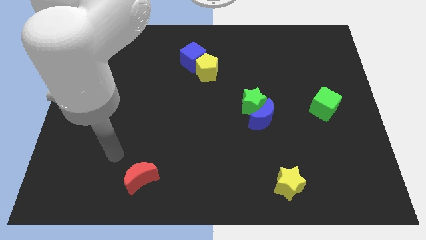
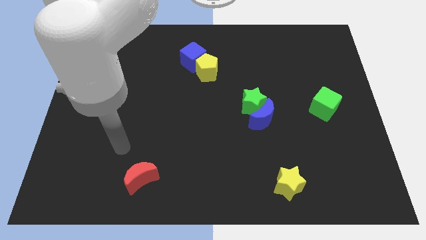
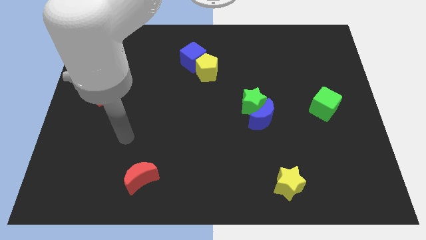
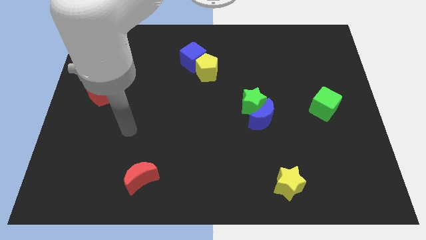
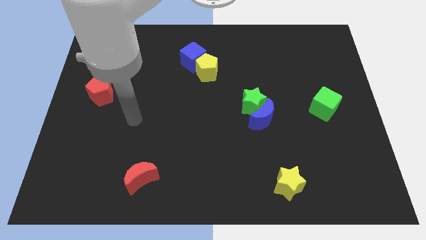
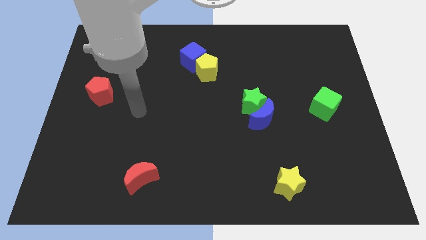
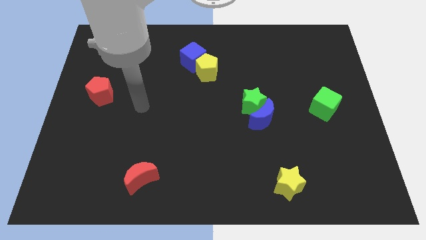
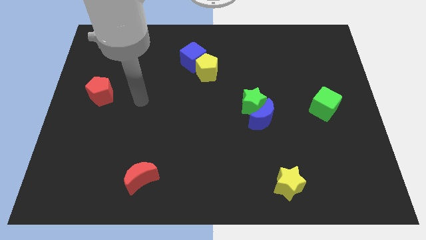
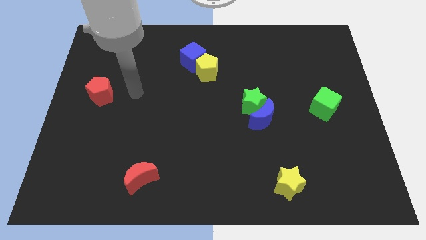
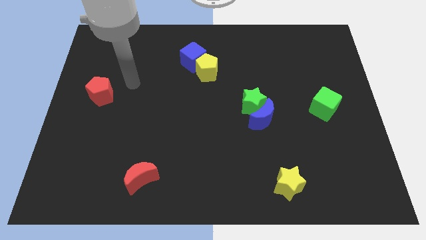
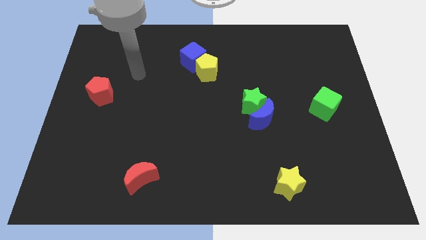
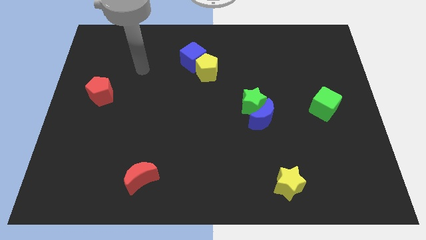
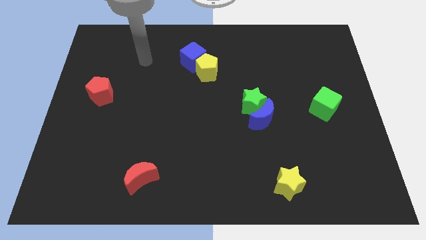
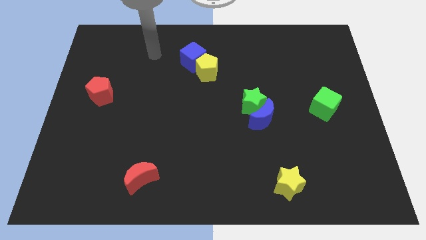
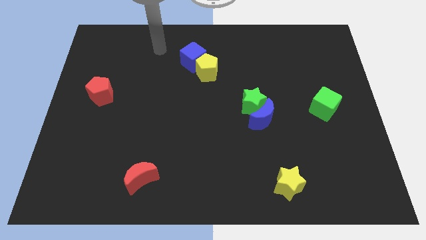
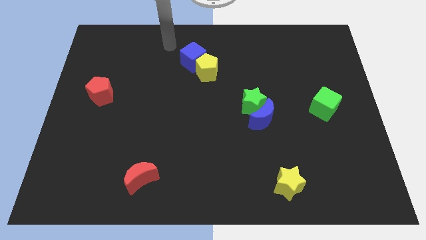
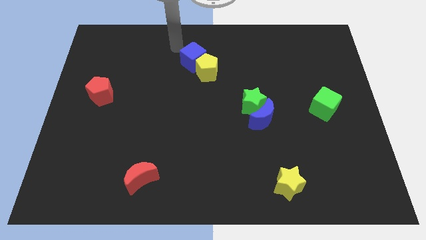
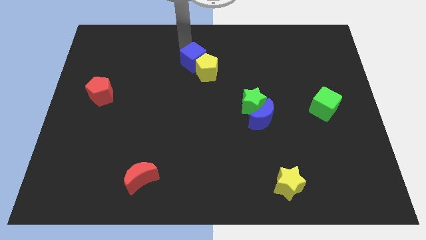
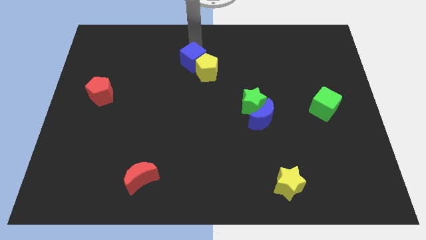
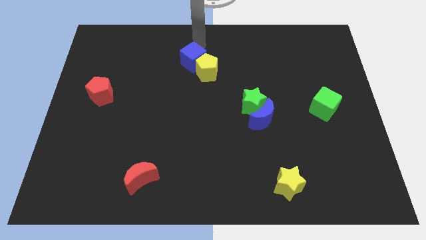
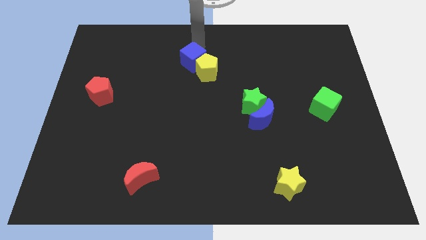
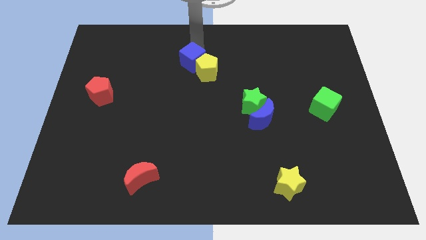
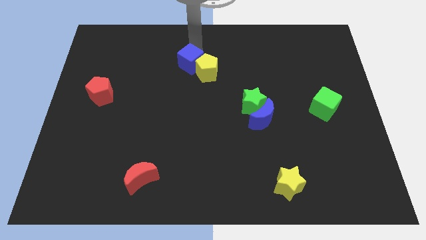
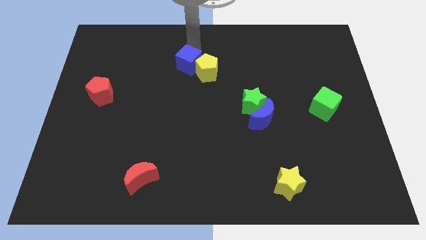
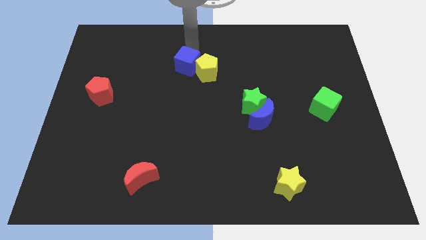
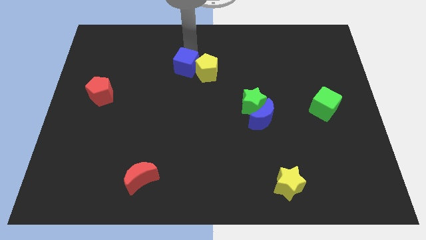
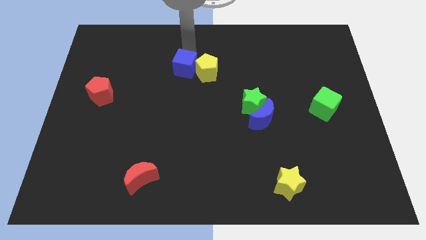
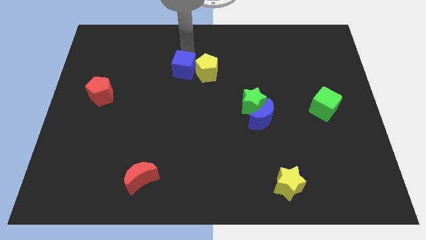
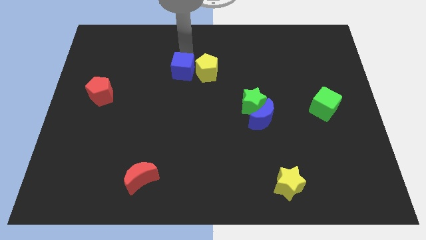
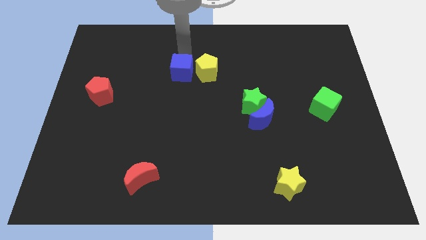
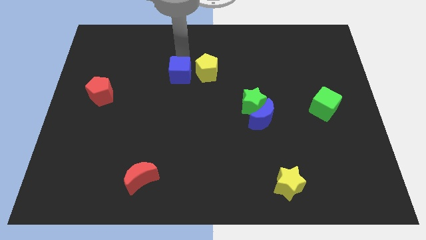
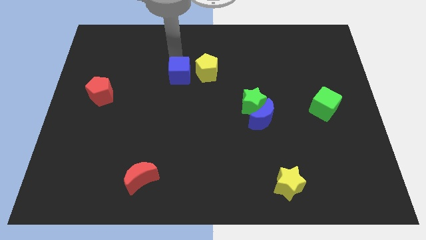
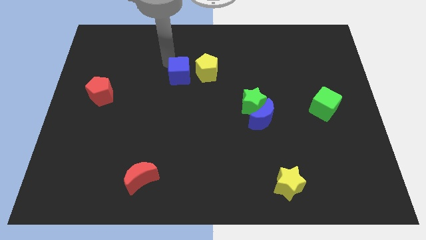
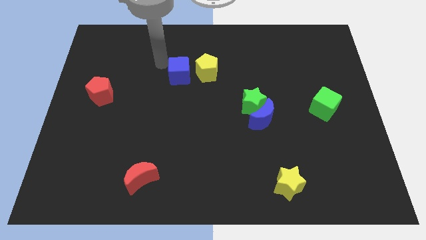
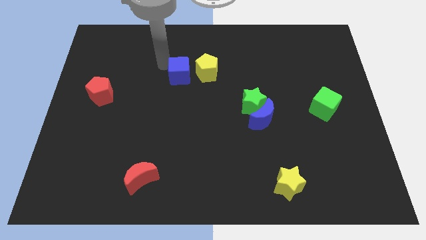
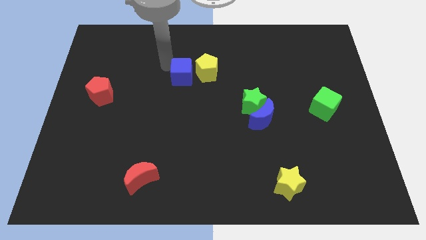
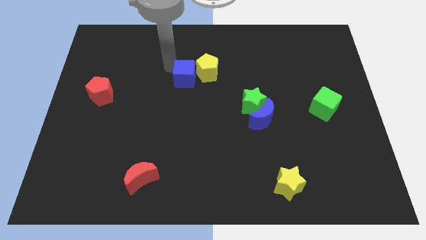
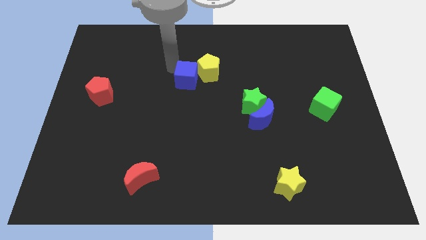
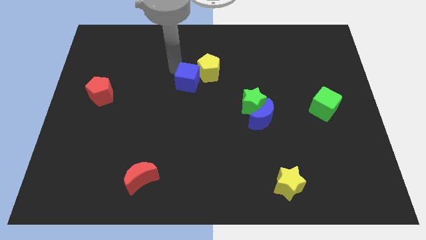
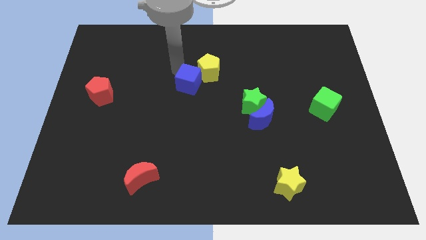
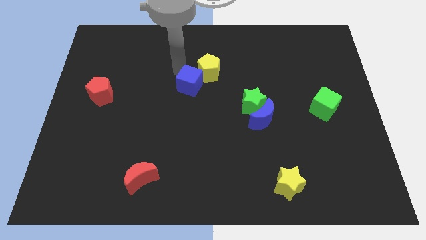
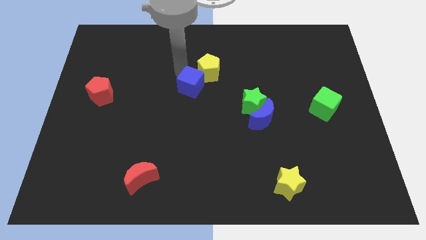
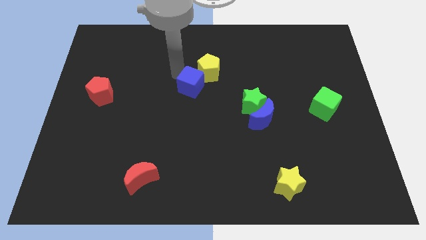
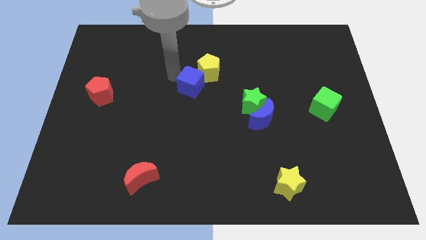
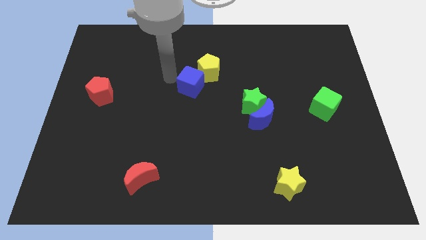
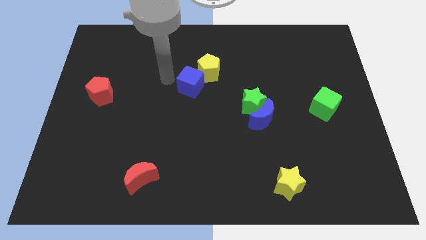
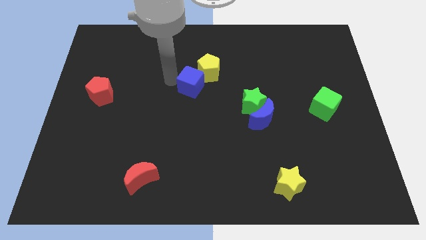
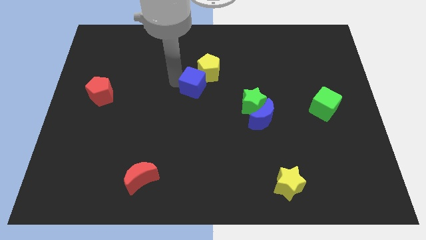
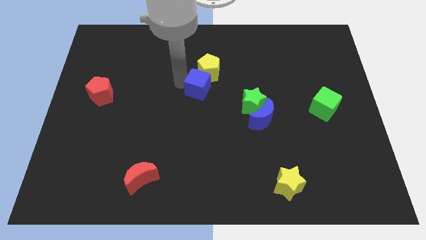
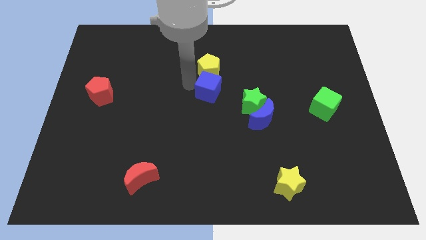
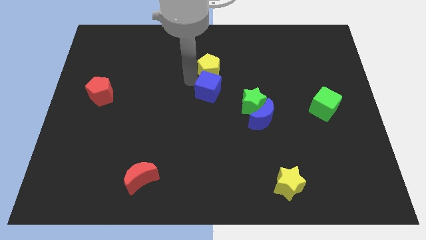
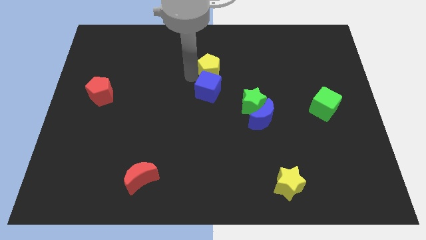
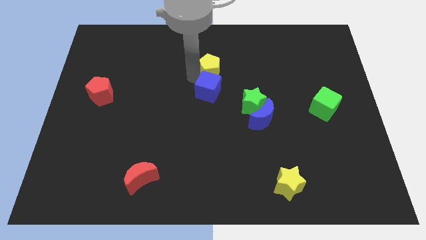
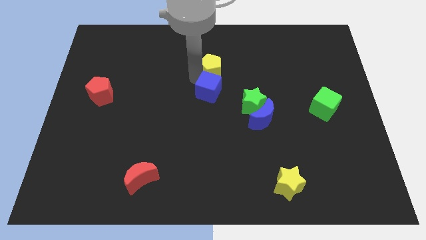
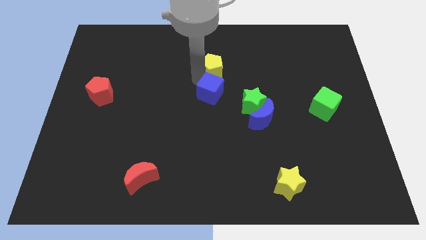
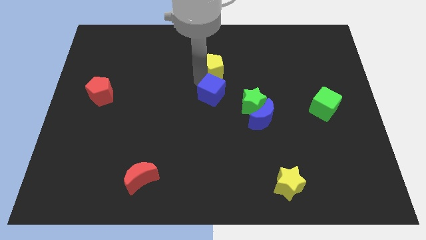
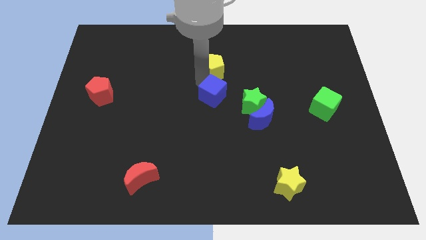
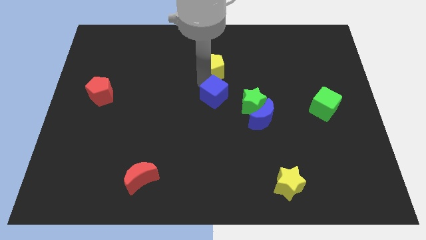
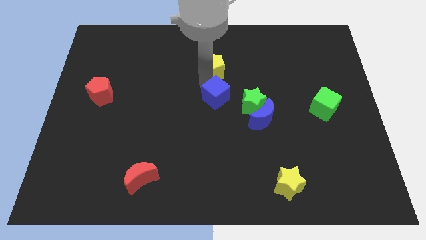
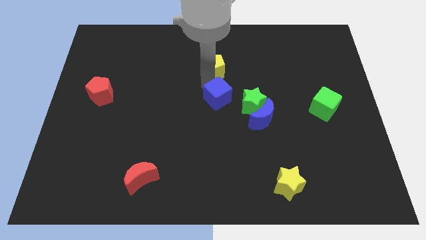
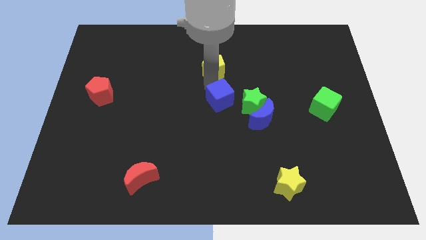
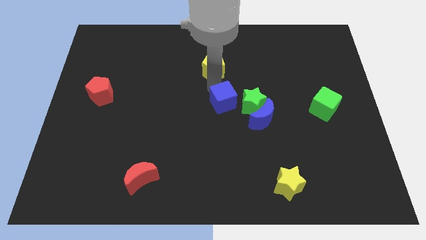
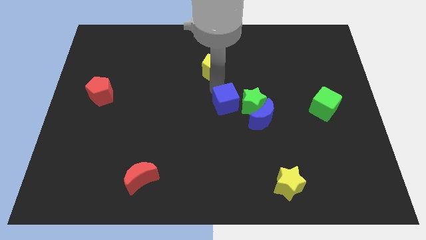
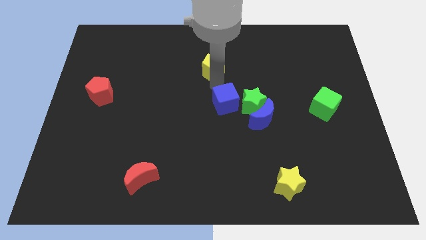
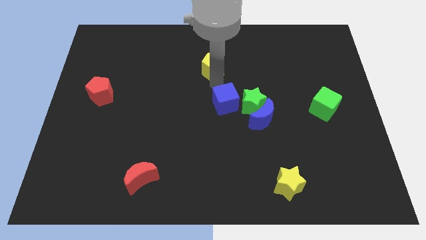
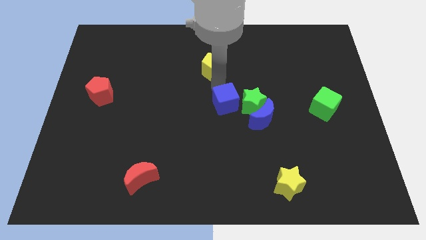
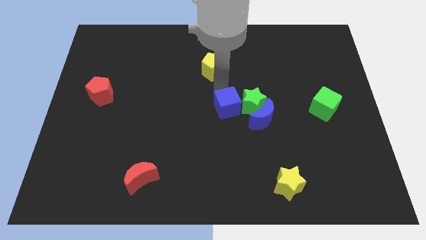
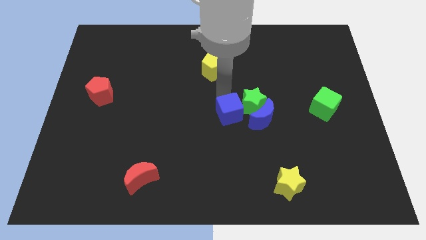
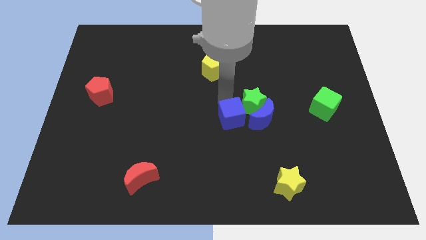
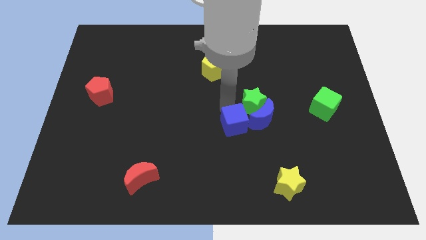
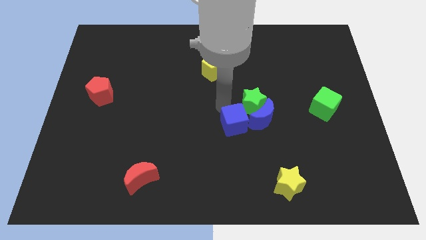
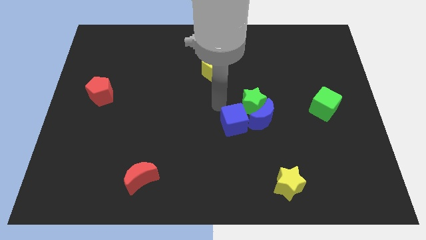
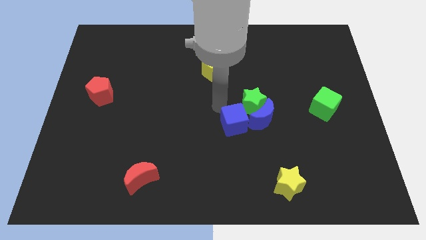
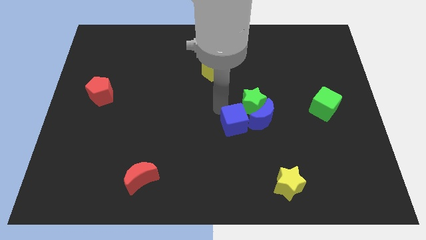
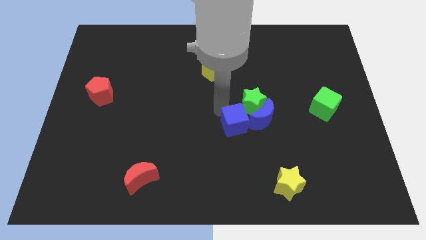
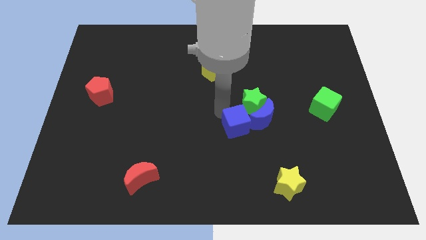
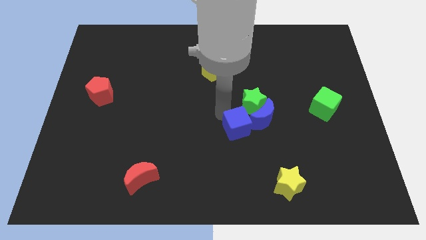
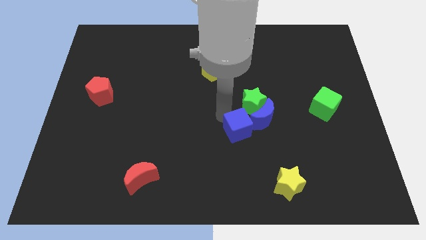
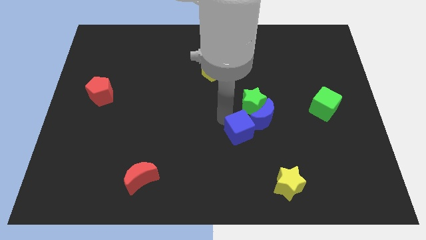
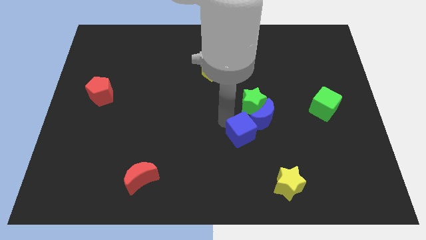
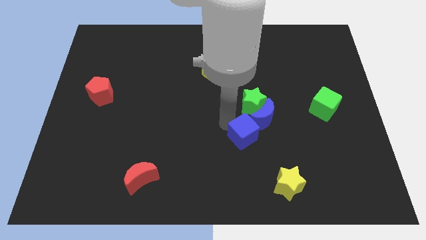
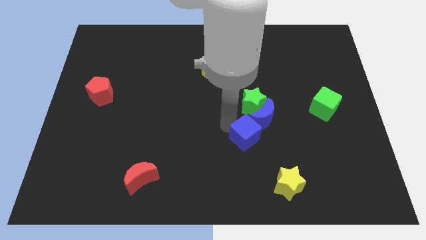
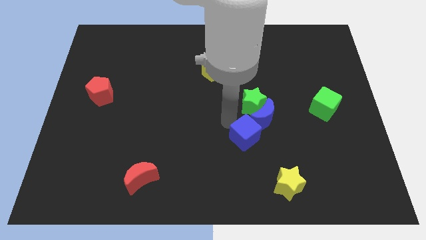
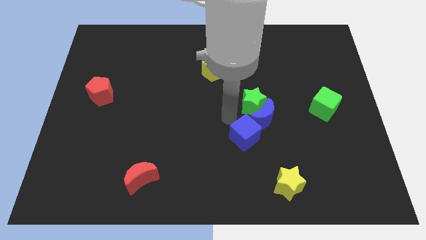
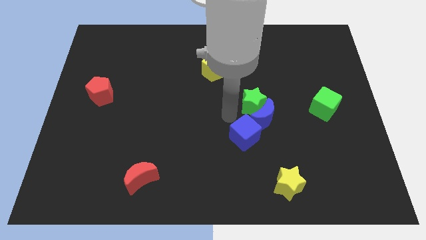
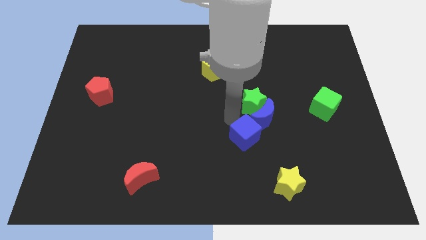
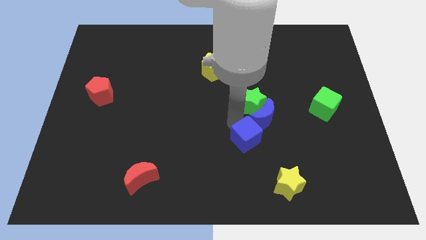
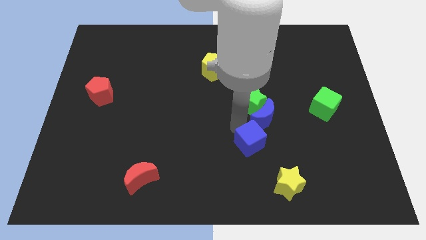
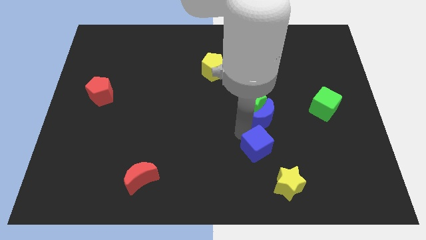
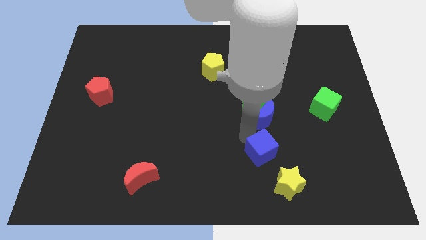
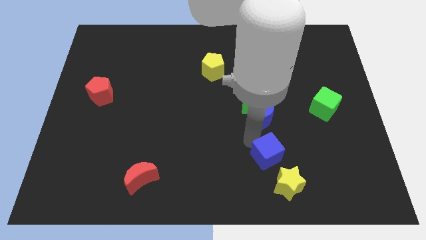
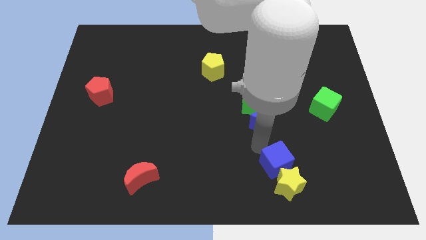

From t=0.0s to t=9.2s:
slide the blue cube to the yellow star
